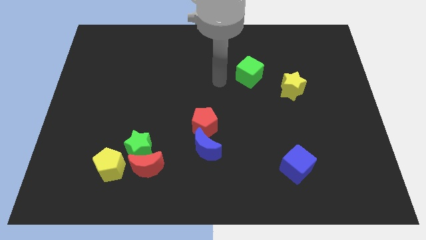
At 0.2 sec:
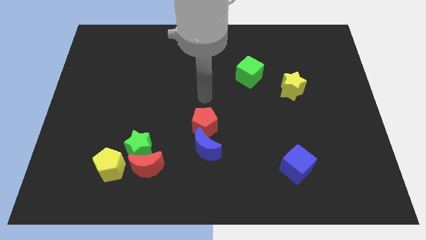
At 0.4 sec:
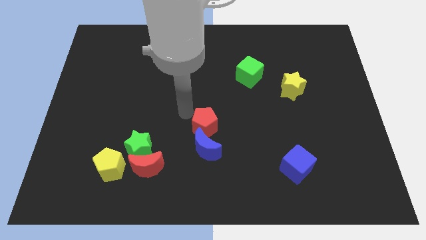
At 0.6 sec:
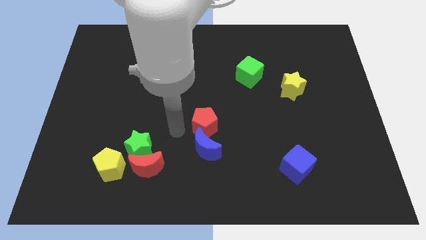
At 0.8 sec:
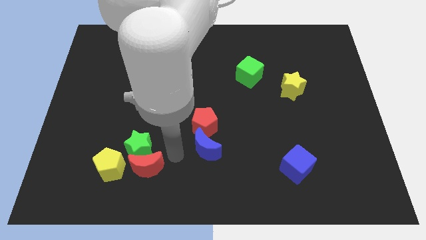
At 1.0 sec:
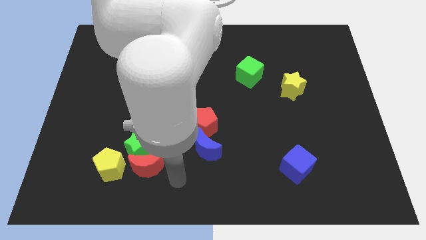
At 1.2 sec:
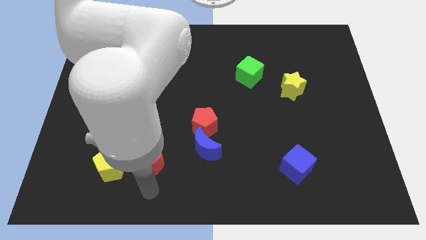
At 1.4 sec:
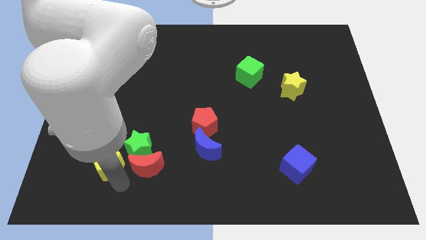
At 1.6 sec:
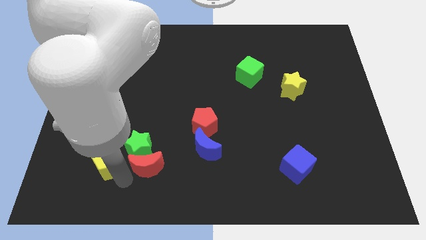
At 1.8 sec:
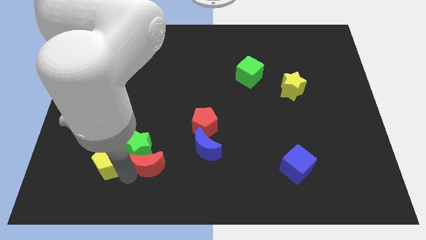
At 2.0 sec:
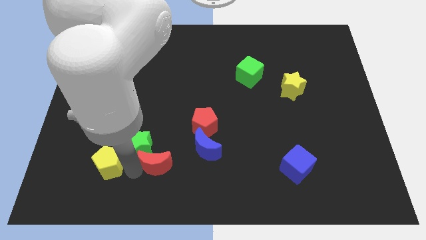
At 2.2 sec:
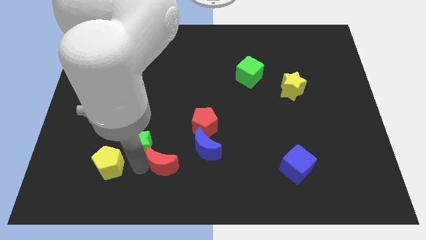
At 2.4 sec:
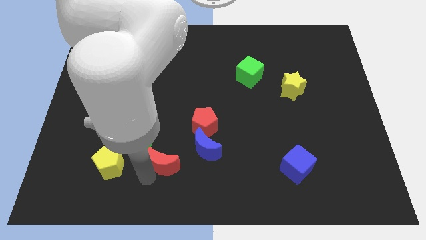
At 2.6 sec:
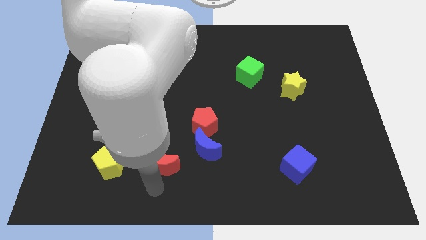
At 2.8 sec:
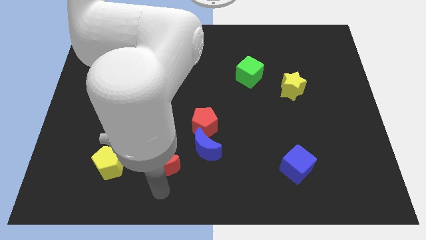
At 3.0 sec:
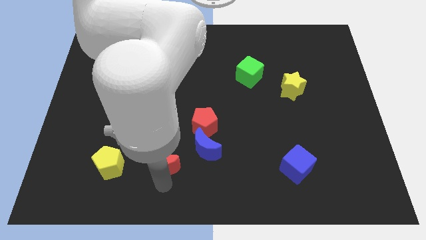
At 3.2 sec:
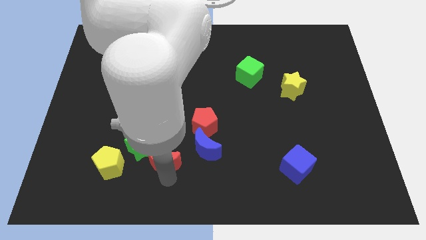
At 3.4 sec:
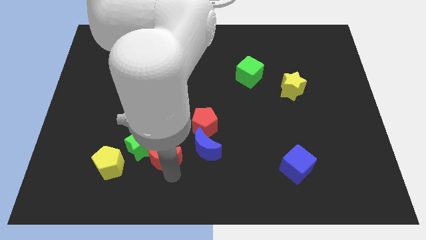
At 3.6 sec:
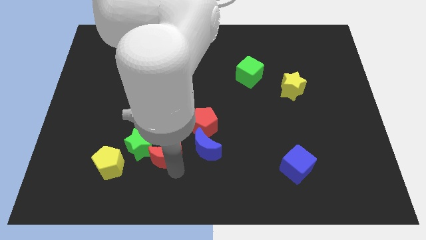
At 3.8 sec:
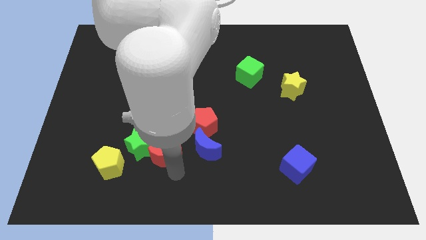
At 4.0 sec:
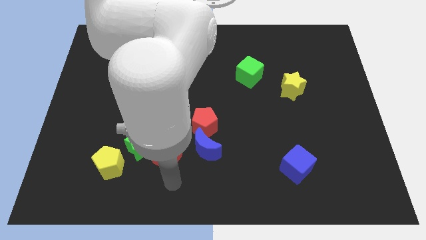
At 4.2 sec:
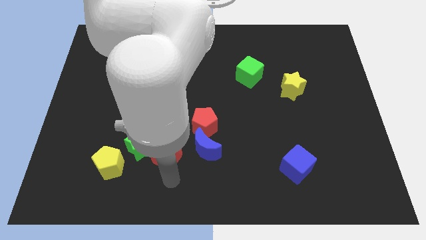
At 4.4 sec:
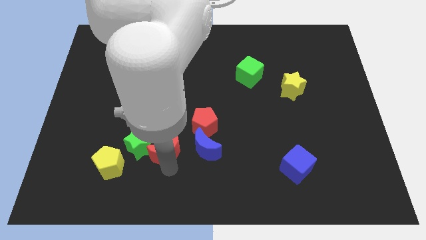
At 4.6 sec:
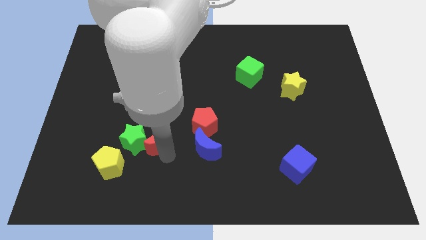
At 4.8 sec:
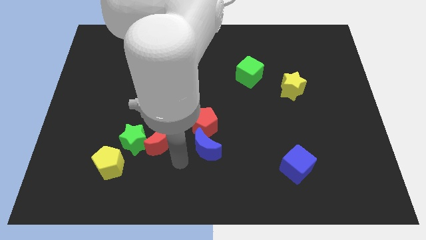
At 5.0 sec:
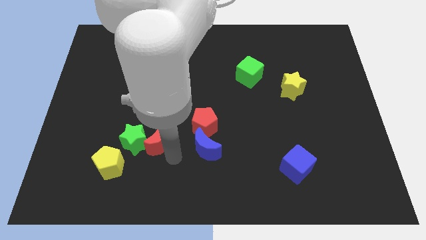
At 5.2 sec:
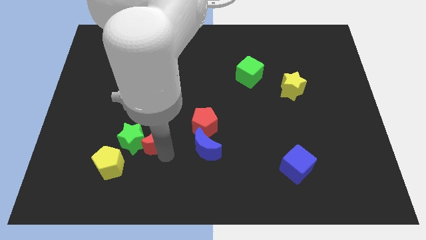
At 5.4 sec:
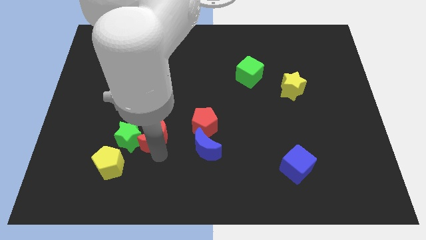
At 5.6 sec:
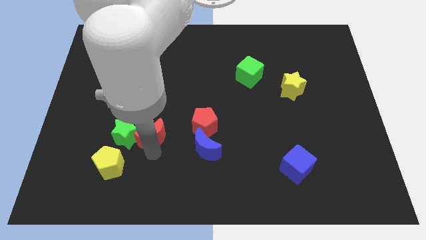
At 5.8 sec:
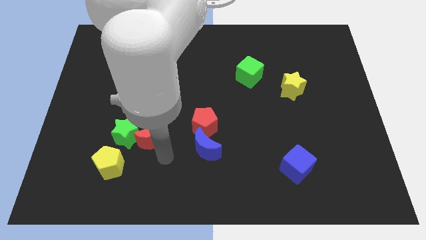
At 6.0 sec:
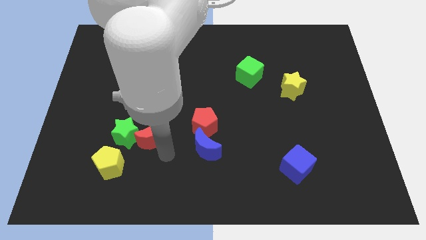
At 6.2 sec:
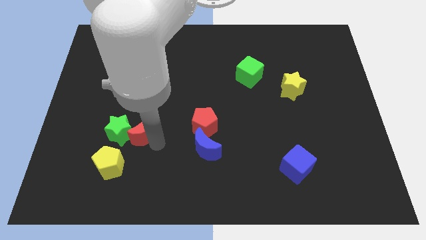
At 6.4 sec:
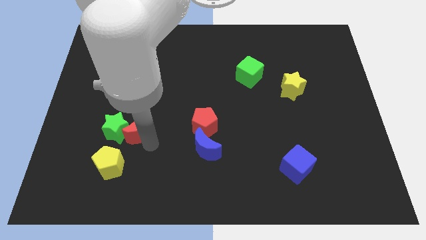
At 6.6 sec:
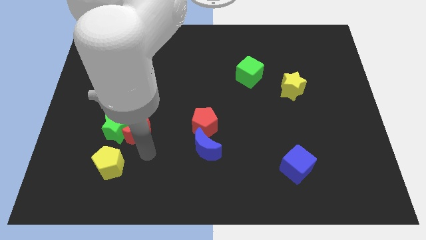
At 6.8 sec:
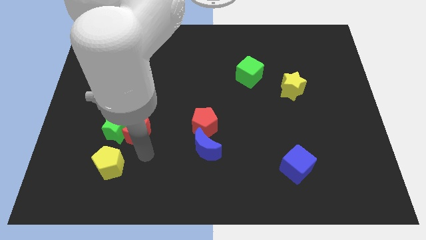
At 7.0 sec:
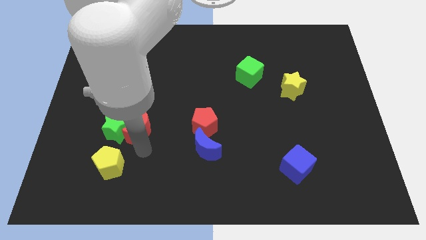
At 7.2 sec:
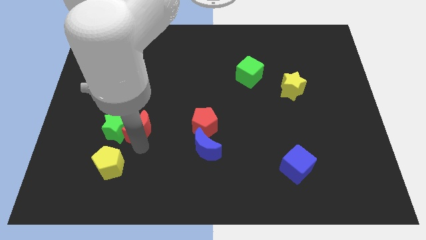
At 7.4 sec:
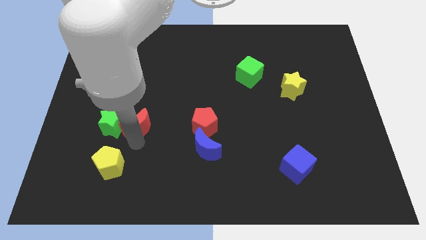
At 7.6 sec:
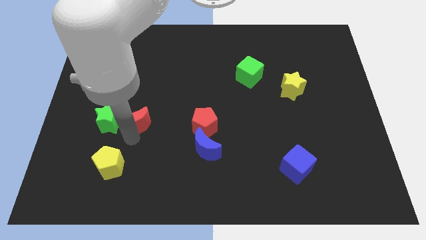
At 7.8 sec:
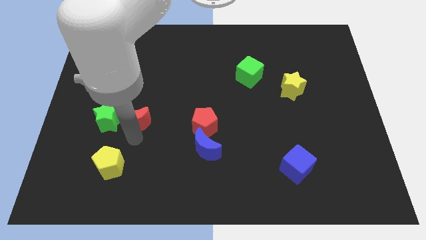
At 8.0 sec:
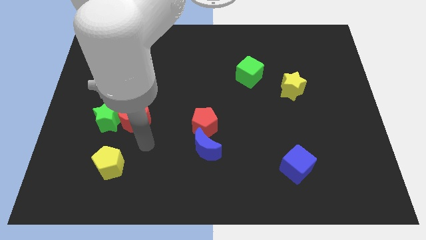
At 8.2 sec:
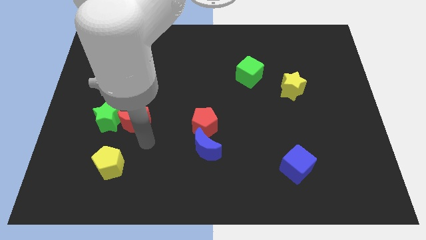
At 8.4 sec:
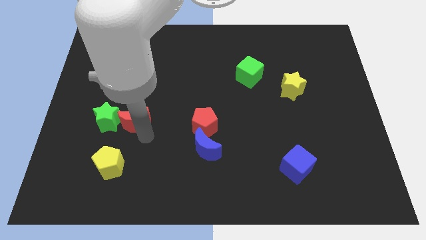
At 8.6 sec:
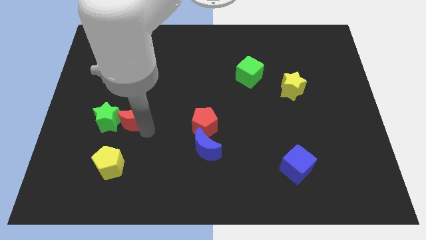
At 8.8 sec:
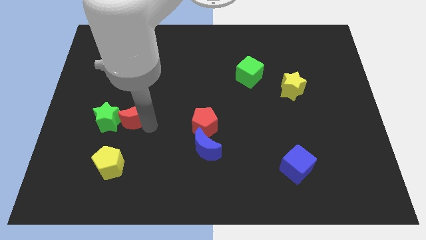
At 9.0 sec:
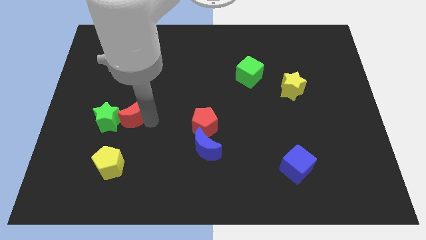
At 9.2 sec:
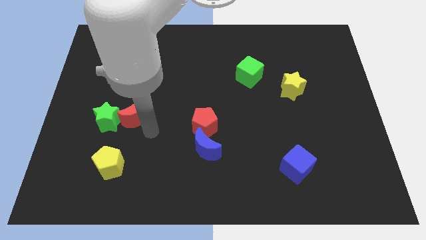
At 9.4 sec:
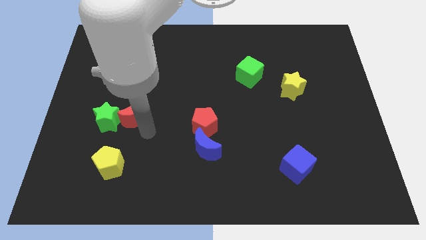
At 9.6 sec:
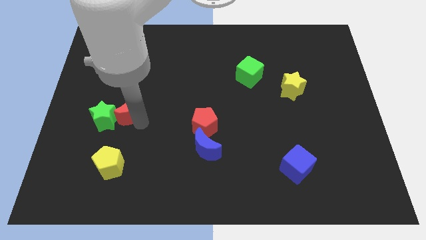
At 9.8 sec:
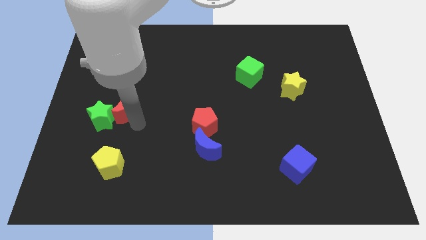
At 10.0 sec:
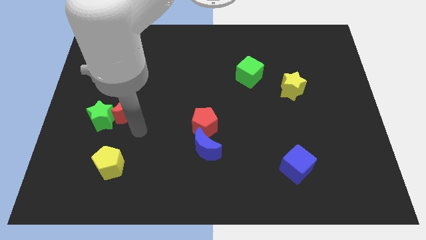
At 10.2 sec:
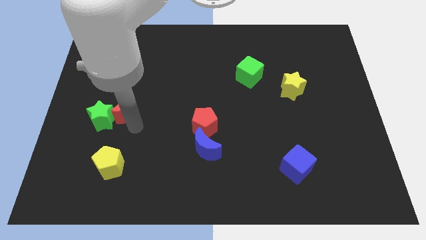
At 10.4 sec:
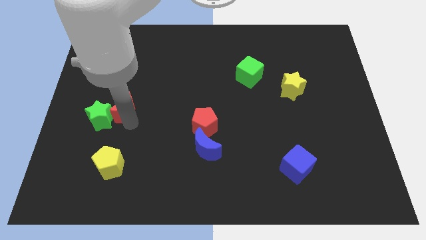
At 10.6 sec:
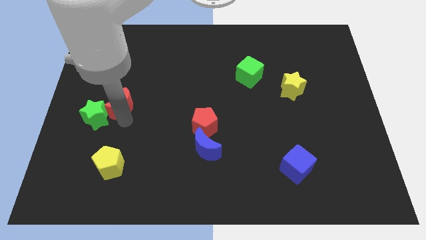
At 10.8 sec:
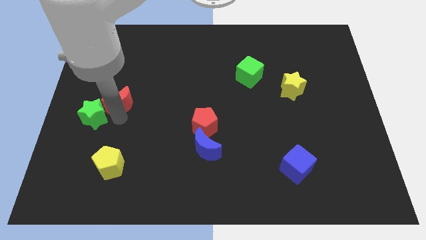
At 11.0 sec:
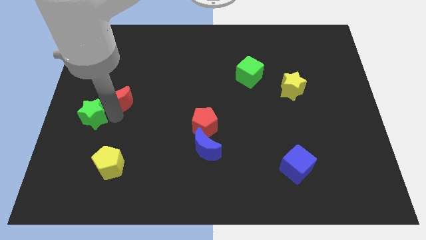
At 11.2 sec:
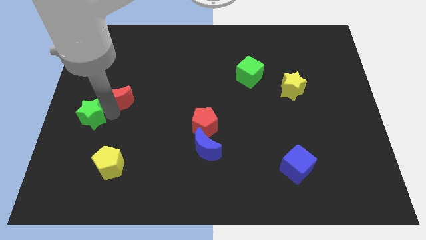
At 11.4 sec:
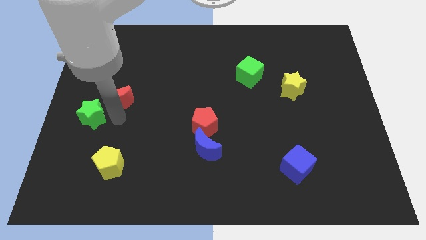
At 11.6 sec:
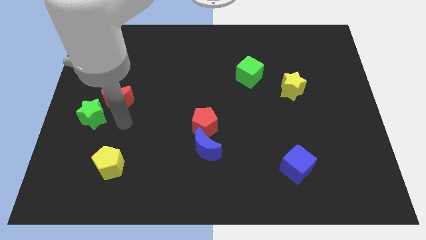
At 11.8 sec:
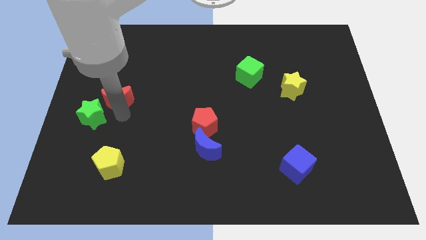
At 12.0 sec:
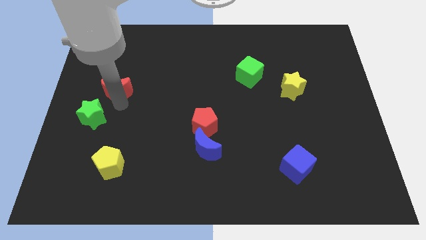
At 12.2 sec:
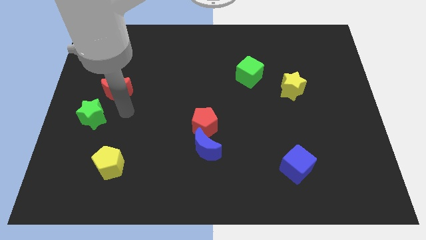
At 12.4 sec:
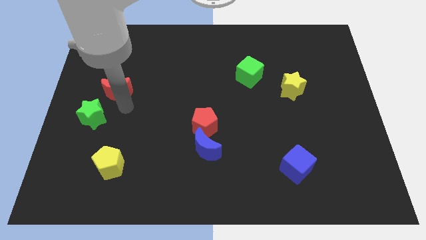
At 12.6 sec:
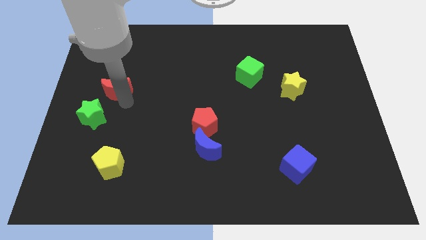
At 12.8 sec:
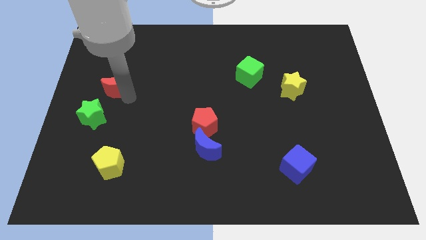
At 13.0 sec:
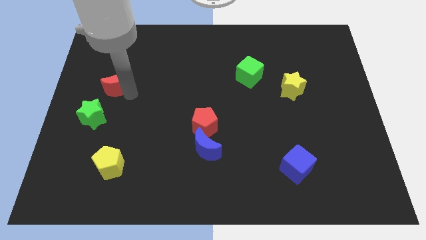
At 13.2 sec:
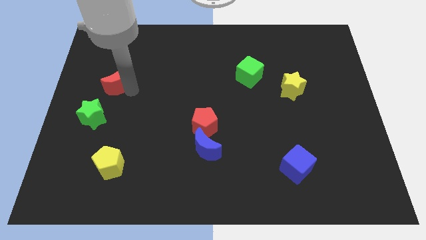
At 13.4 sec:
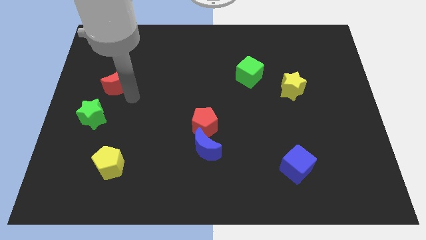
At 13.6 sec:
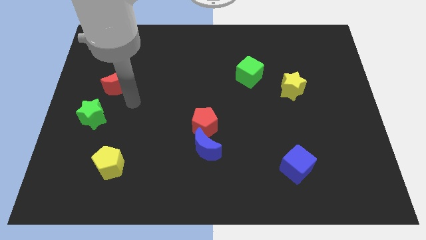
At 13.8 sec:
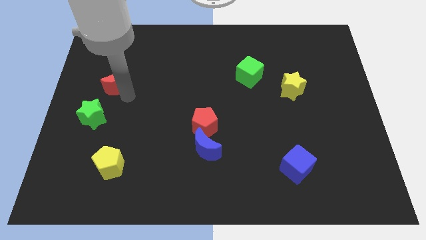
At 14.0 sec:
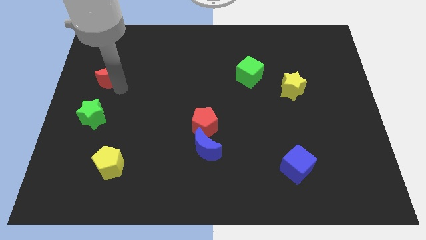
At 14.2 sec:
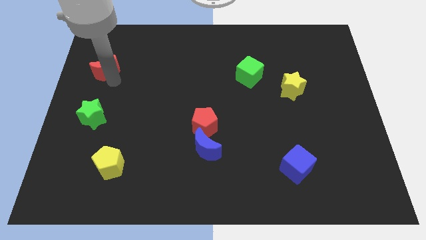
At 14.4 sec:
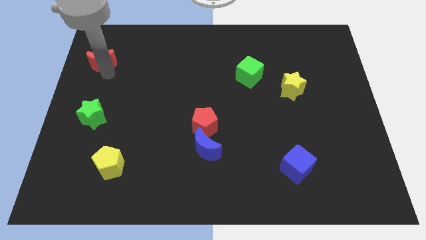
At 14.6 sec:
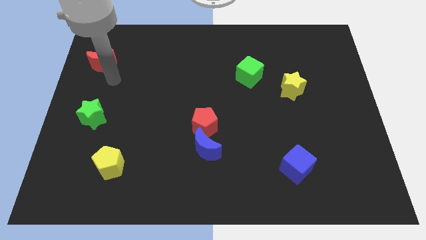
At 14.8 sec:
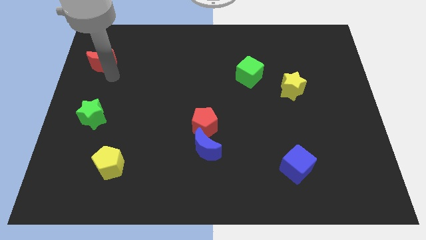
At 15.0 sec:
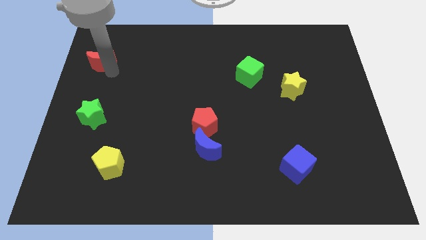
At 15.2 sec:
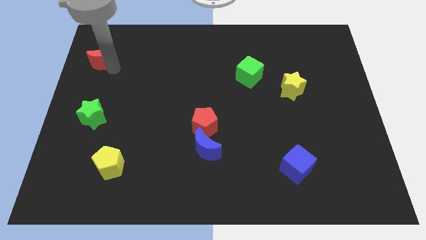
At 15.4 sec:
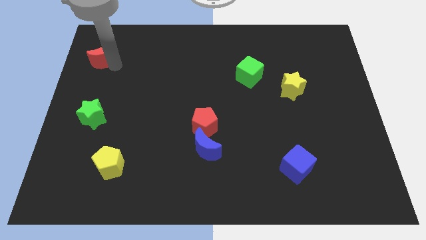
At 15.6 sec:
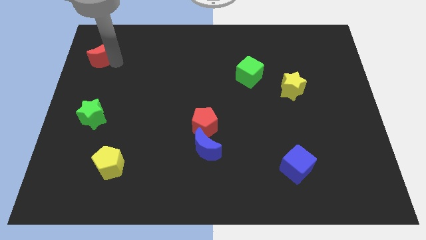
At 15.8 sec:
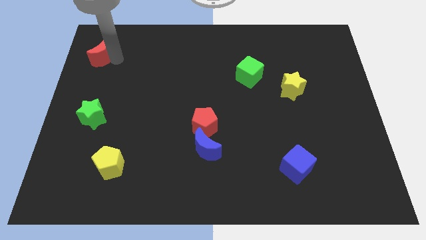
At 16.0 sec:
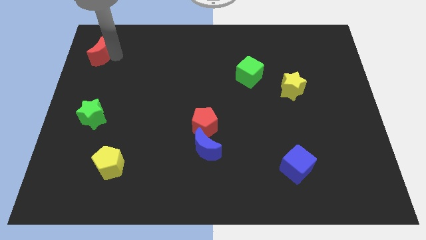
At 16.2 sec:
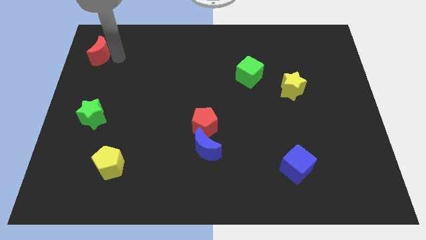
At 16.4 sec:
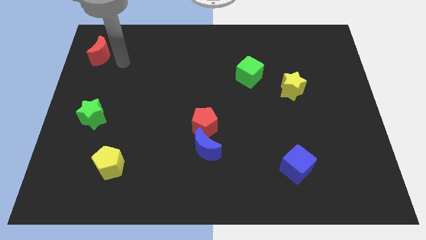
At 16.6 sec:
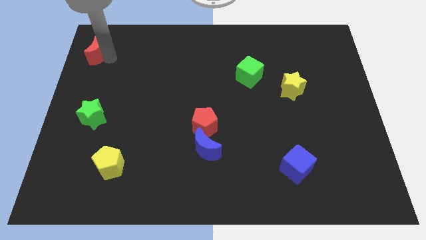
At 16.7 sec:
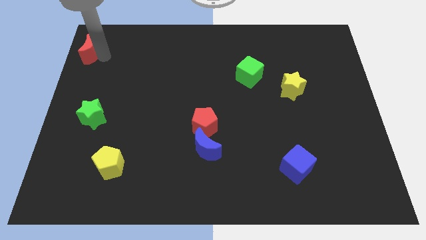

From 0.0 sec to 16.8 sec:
slide the red moon to the top left
